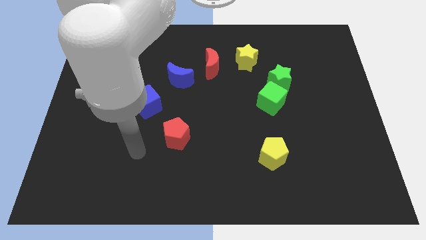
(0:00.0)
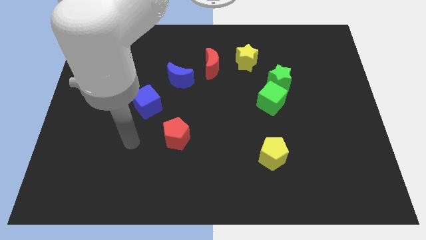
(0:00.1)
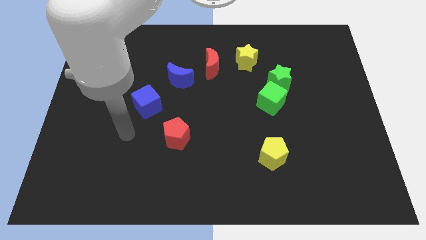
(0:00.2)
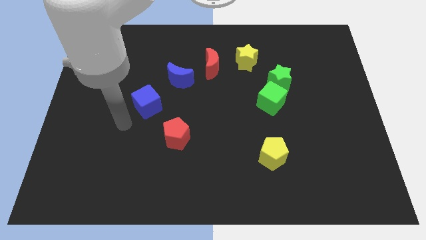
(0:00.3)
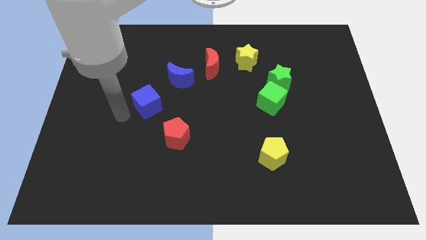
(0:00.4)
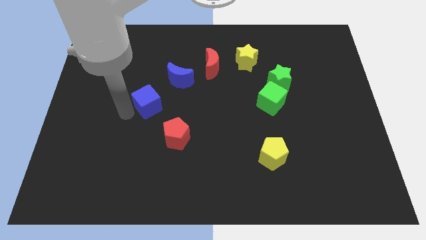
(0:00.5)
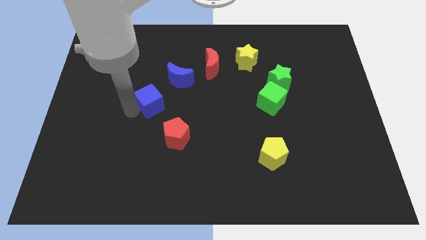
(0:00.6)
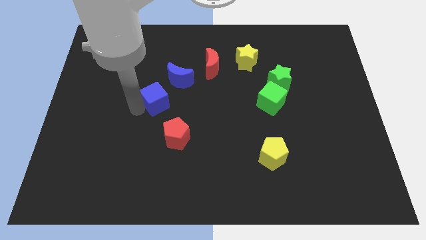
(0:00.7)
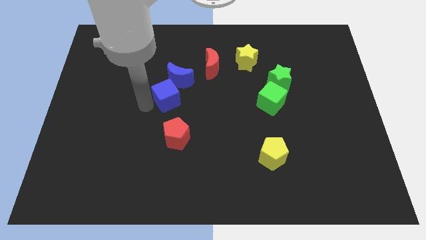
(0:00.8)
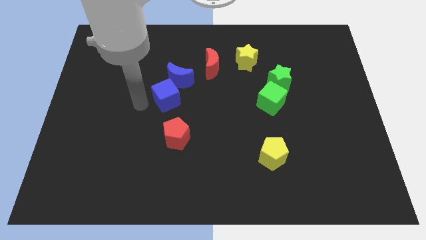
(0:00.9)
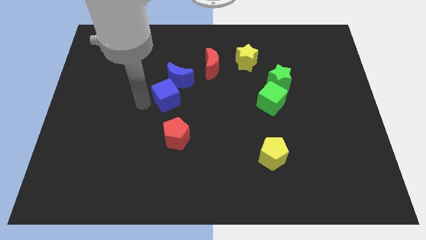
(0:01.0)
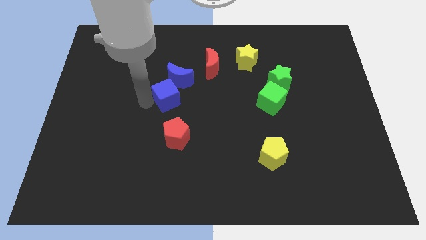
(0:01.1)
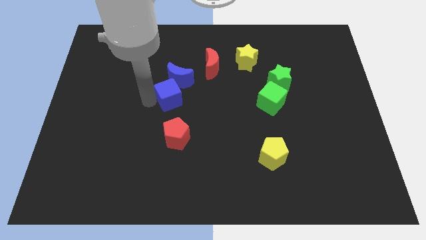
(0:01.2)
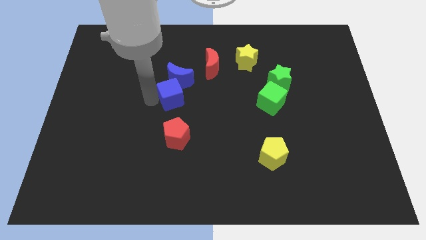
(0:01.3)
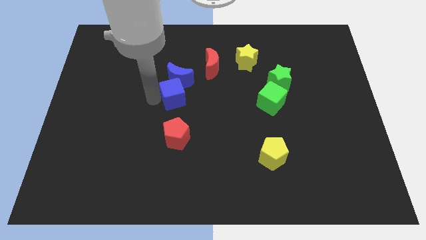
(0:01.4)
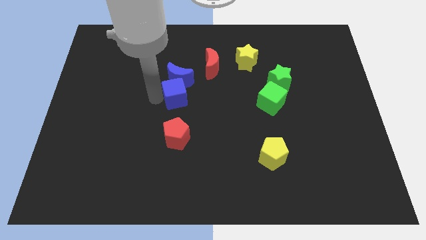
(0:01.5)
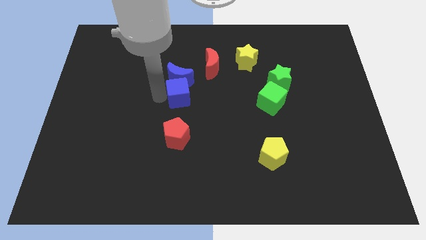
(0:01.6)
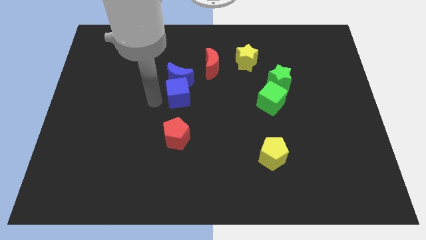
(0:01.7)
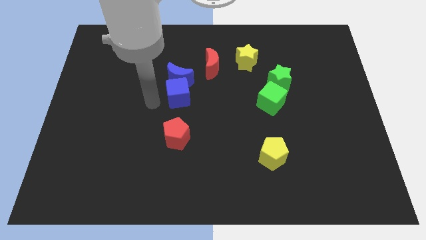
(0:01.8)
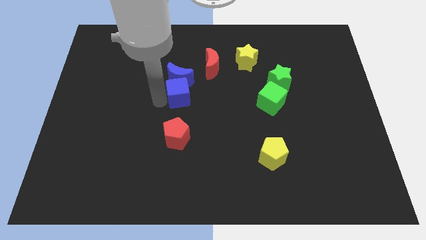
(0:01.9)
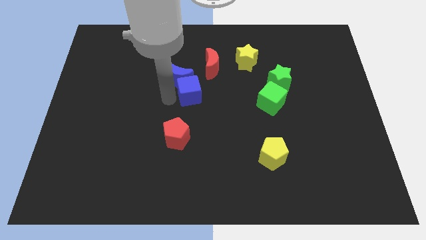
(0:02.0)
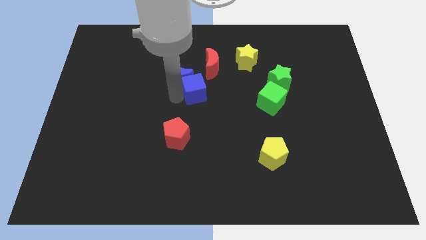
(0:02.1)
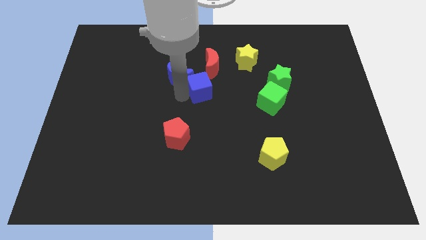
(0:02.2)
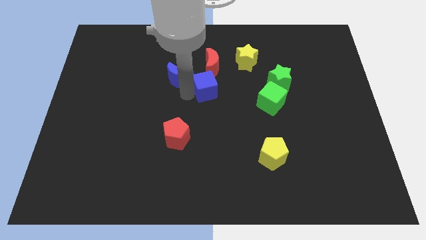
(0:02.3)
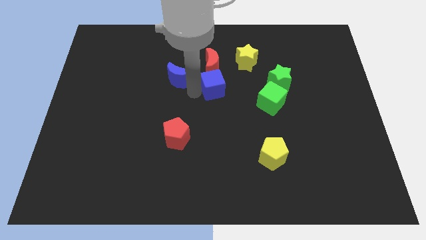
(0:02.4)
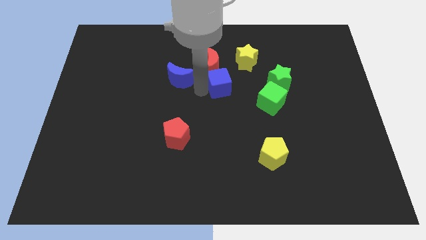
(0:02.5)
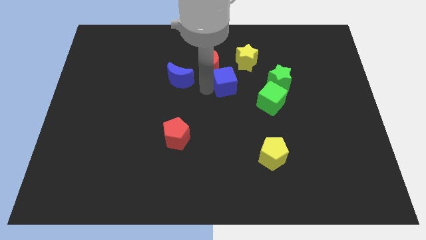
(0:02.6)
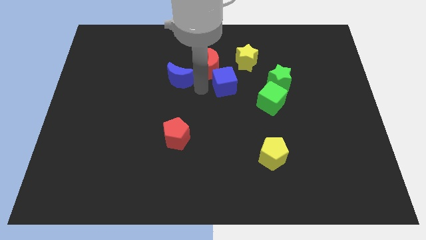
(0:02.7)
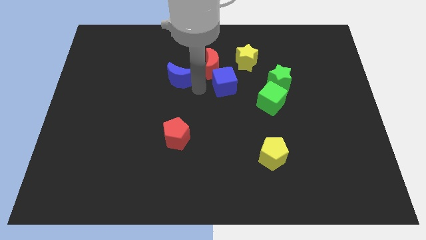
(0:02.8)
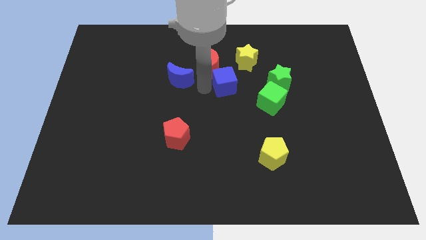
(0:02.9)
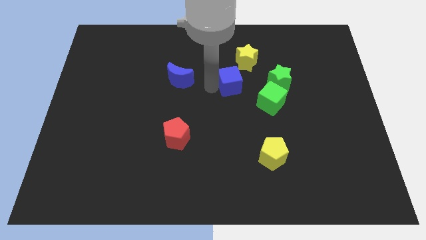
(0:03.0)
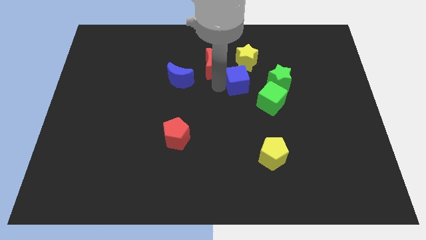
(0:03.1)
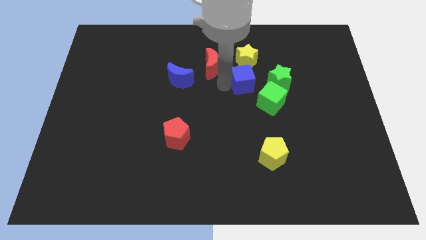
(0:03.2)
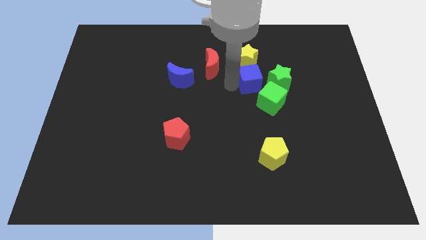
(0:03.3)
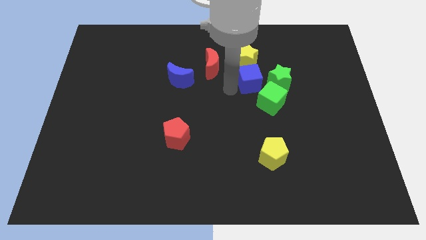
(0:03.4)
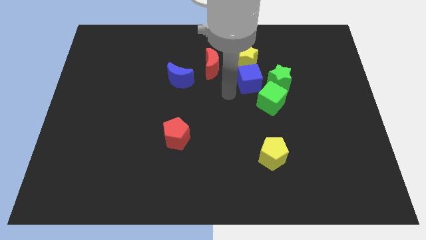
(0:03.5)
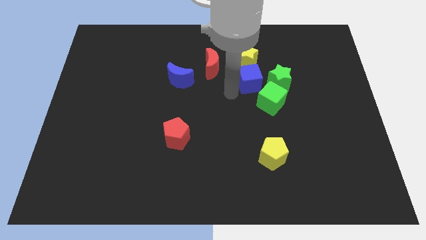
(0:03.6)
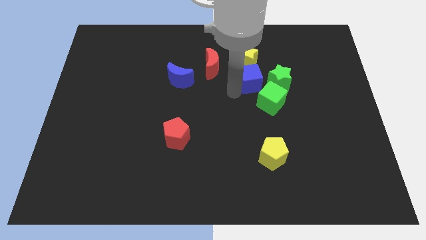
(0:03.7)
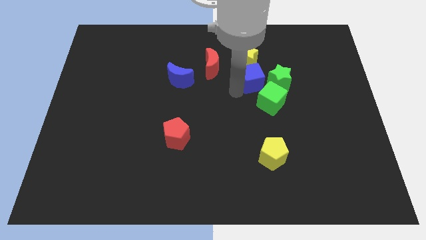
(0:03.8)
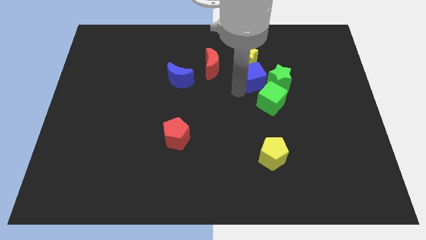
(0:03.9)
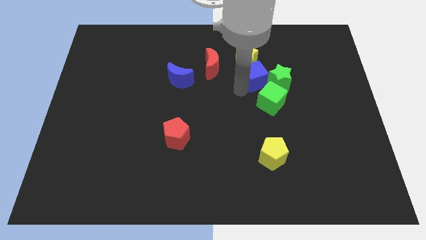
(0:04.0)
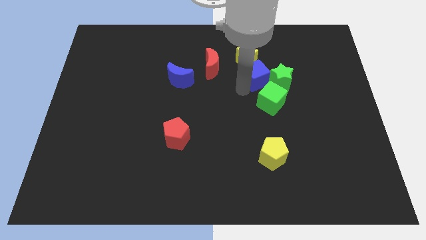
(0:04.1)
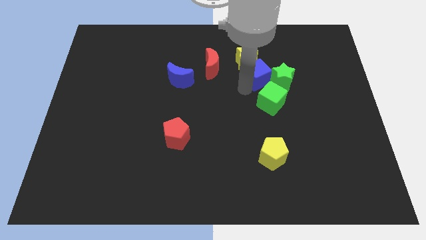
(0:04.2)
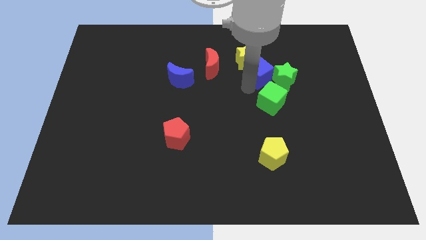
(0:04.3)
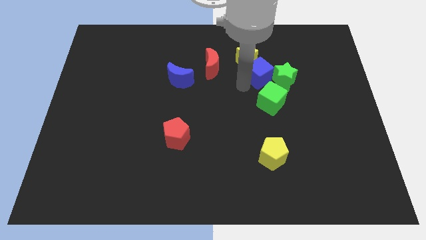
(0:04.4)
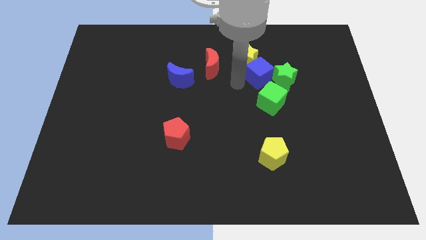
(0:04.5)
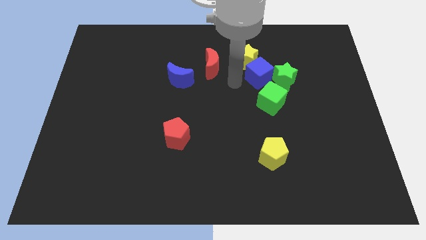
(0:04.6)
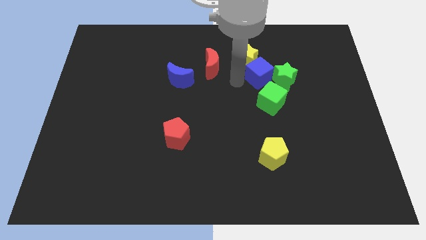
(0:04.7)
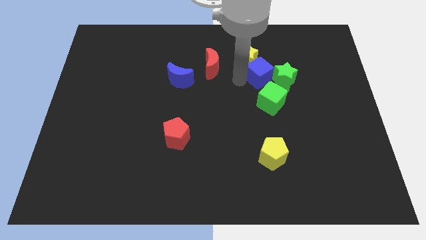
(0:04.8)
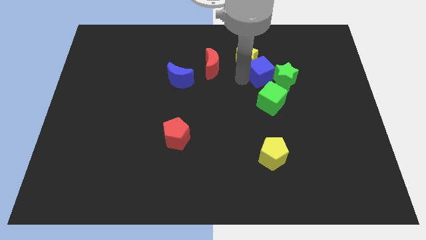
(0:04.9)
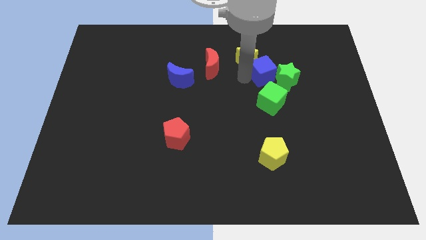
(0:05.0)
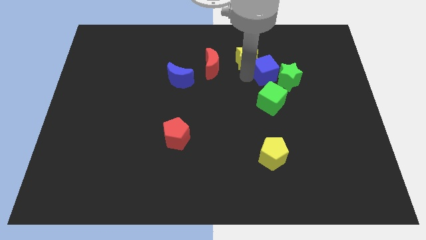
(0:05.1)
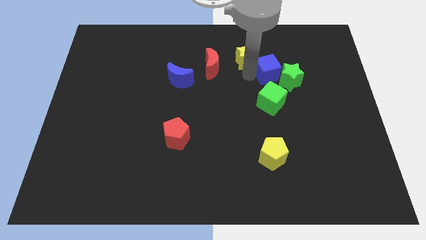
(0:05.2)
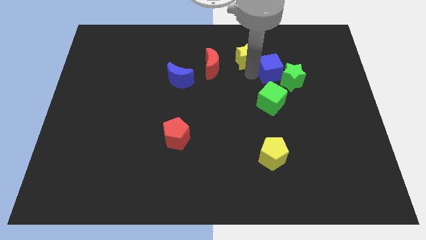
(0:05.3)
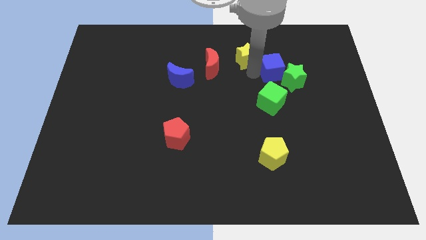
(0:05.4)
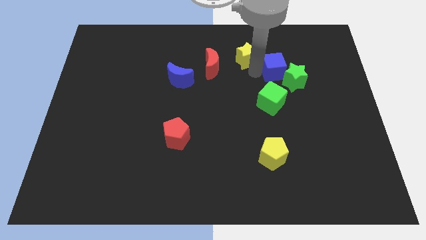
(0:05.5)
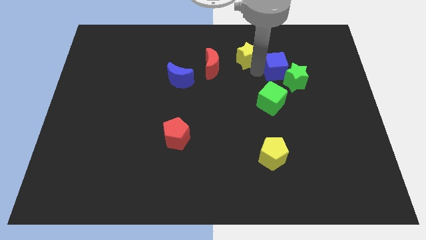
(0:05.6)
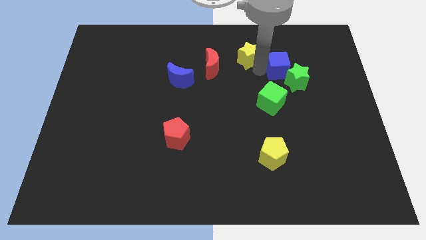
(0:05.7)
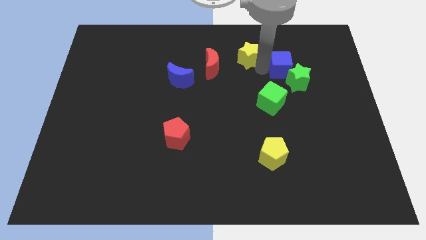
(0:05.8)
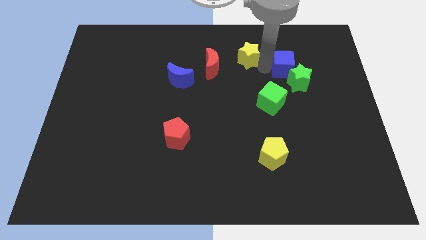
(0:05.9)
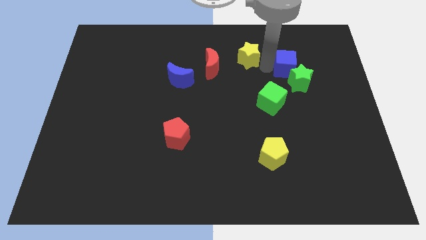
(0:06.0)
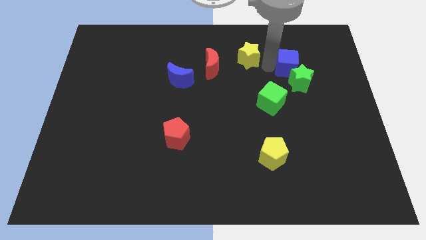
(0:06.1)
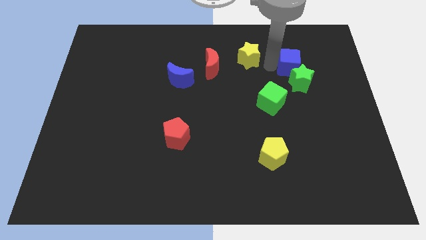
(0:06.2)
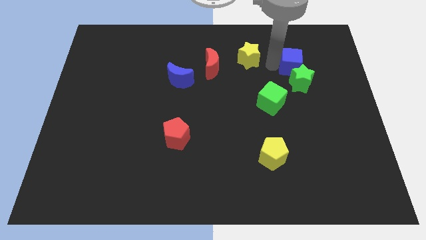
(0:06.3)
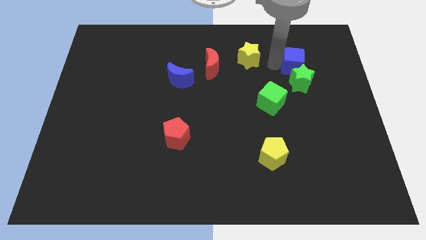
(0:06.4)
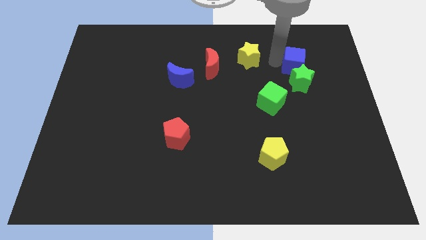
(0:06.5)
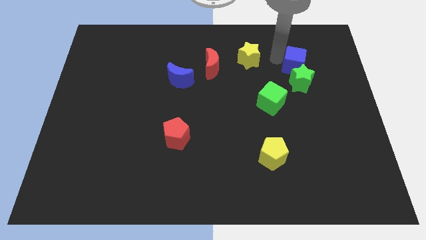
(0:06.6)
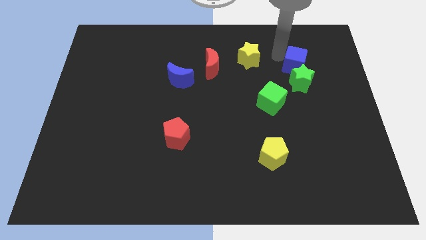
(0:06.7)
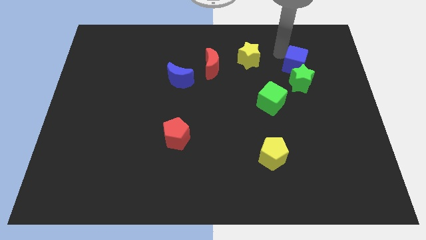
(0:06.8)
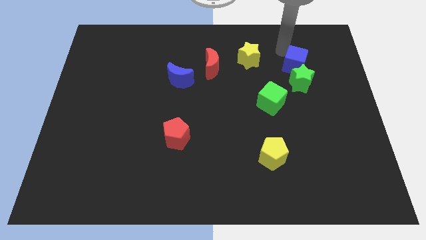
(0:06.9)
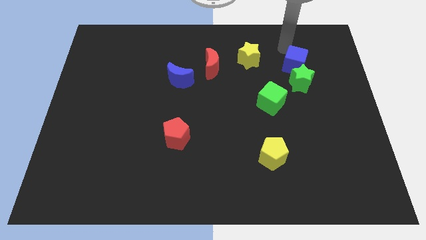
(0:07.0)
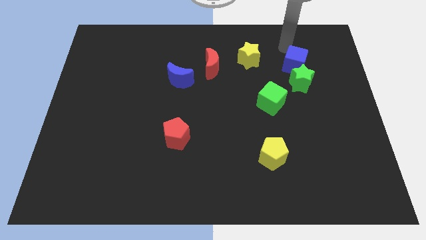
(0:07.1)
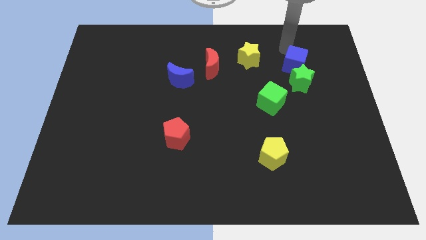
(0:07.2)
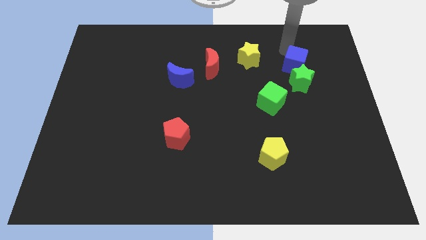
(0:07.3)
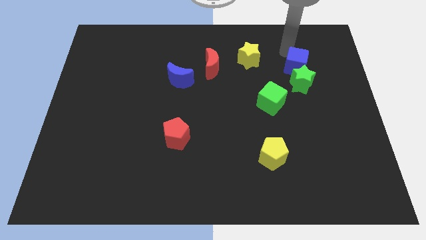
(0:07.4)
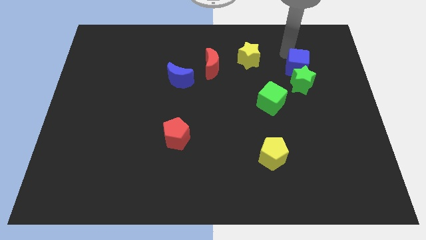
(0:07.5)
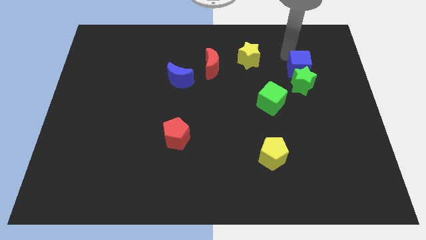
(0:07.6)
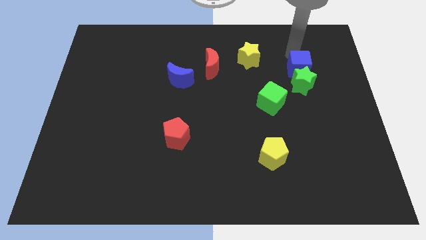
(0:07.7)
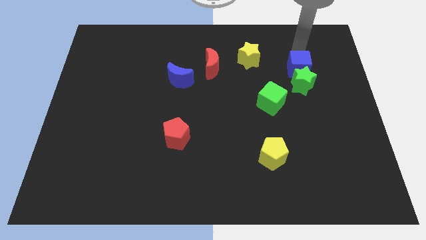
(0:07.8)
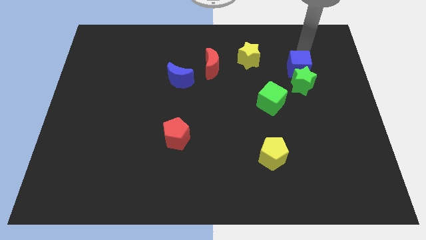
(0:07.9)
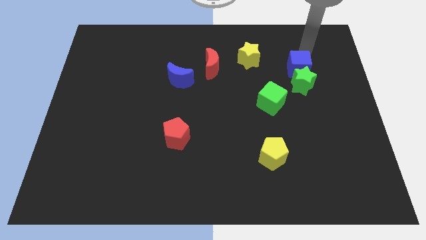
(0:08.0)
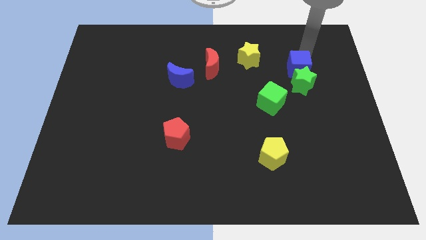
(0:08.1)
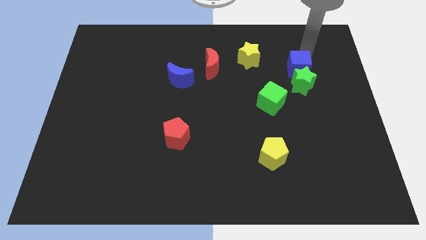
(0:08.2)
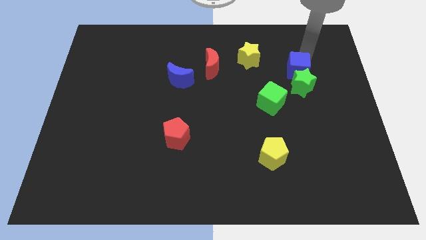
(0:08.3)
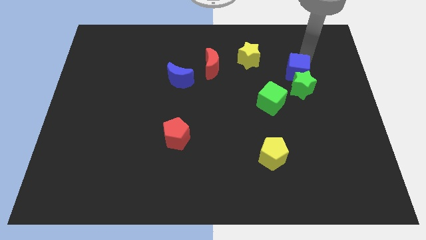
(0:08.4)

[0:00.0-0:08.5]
slide the blue cube diagonally up and to the right of the green cube
